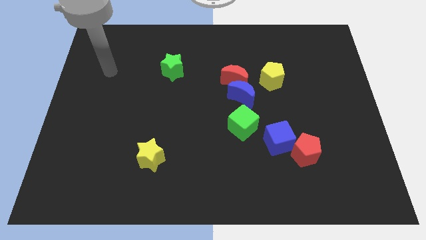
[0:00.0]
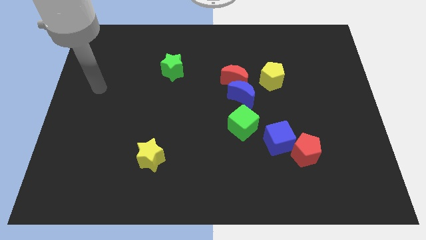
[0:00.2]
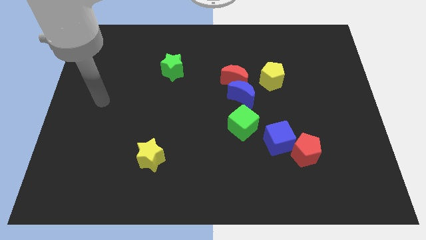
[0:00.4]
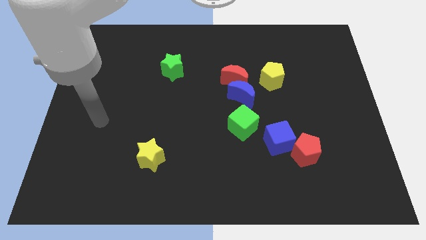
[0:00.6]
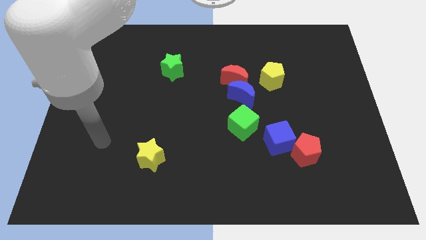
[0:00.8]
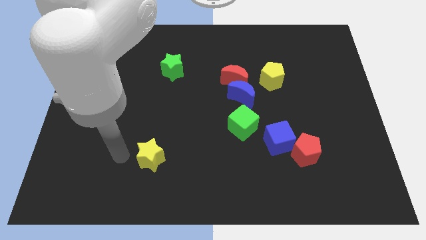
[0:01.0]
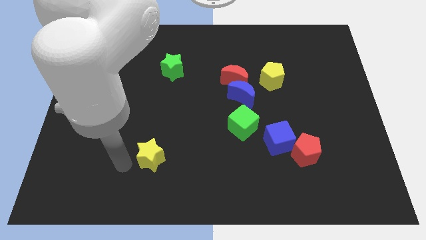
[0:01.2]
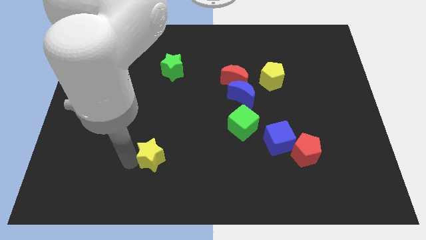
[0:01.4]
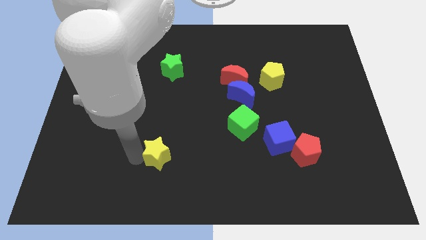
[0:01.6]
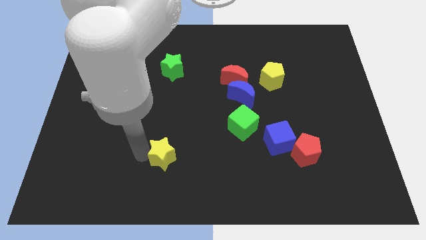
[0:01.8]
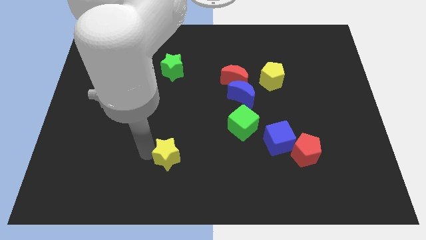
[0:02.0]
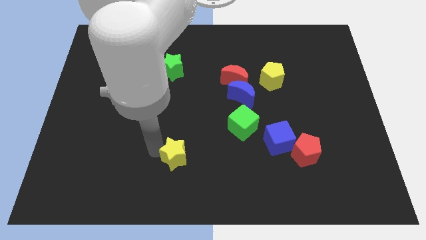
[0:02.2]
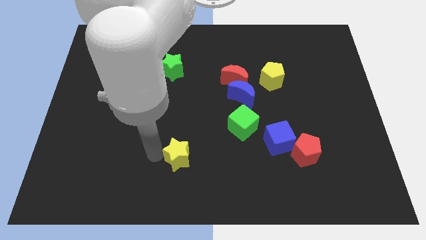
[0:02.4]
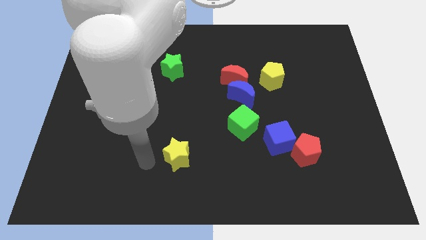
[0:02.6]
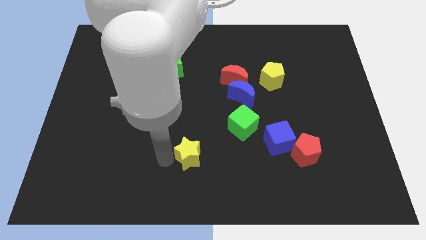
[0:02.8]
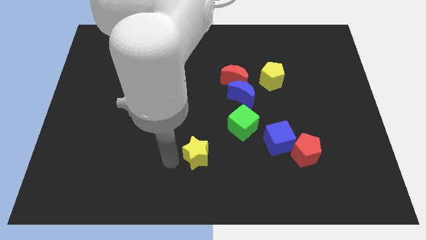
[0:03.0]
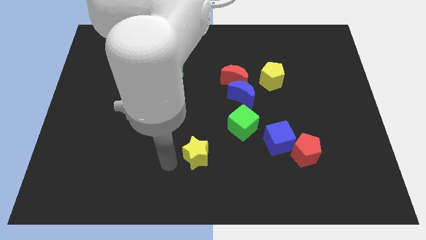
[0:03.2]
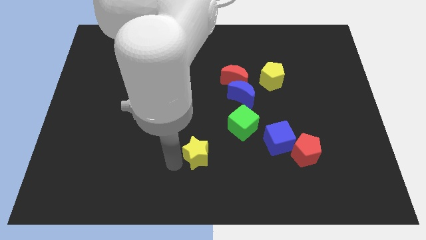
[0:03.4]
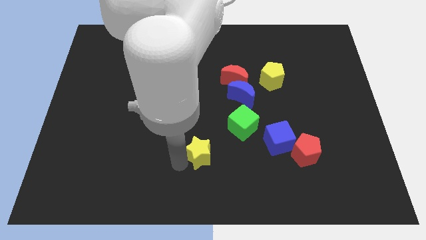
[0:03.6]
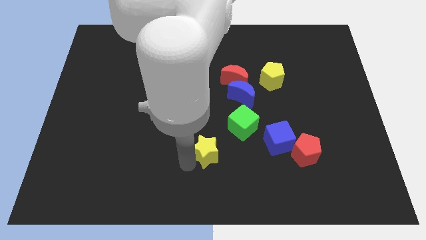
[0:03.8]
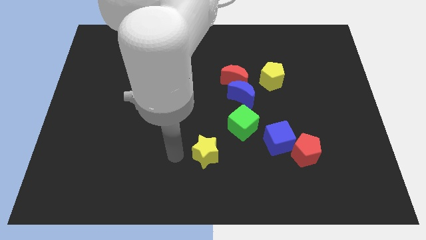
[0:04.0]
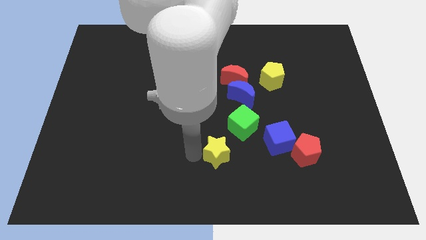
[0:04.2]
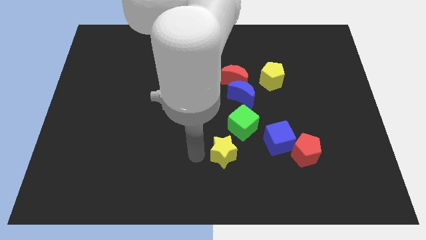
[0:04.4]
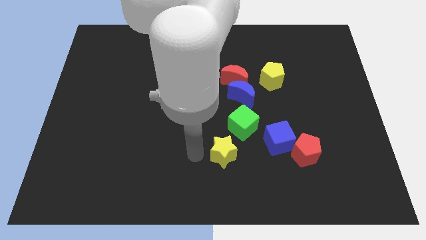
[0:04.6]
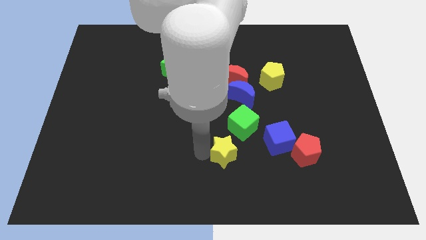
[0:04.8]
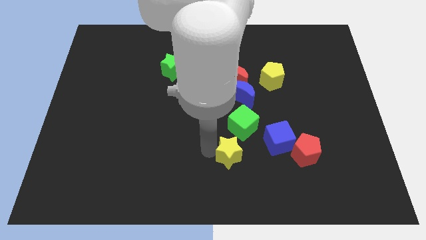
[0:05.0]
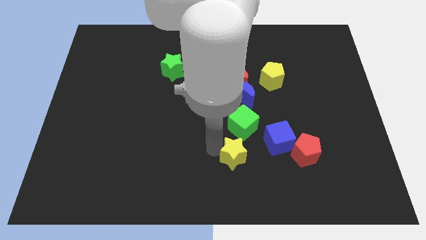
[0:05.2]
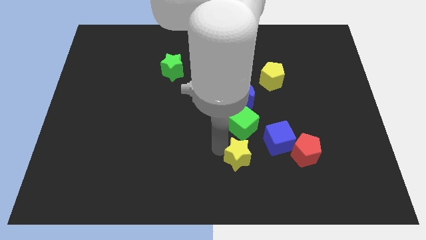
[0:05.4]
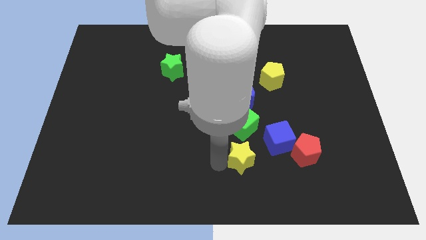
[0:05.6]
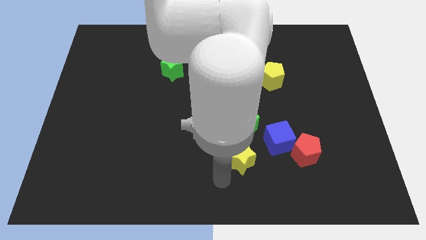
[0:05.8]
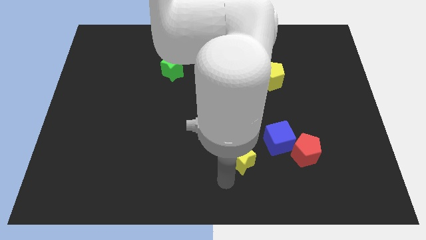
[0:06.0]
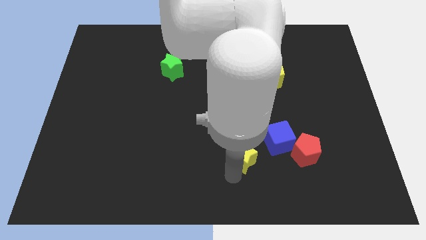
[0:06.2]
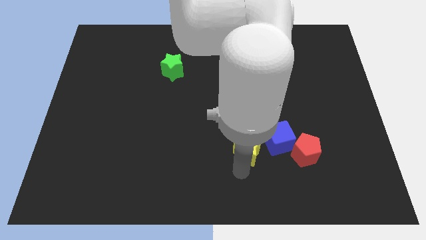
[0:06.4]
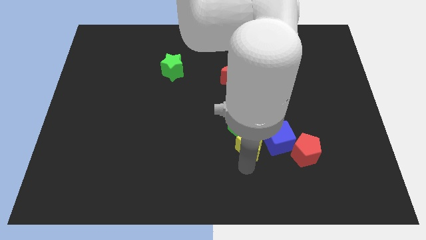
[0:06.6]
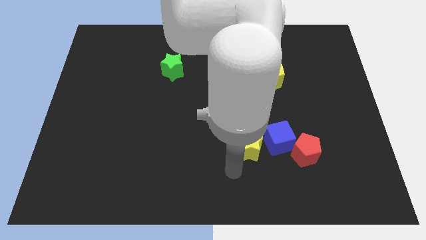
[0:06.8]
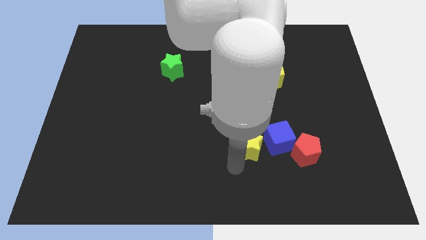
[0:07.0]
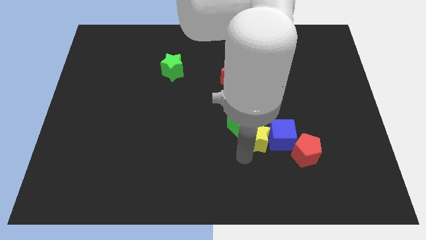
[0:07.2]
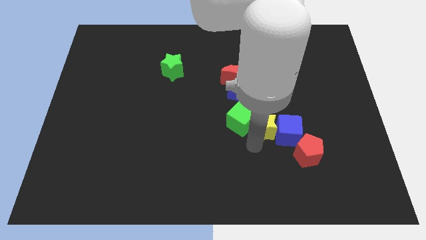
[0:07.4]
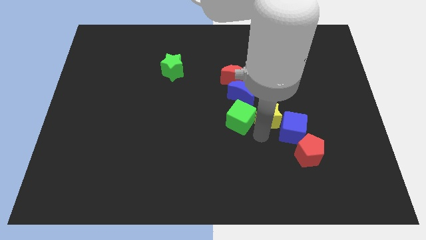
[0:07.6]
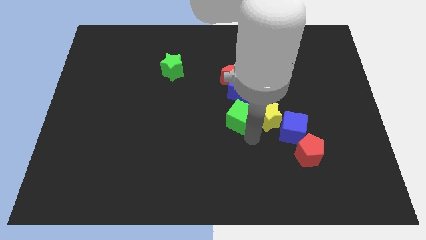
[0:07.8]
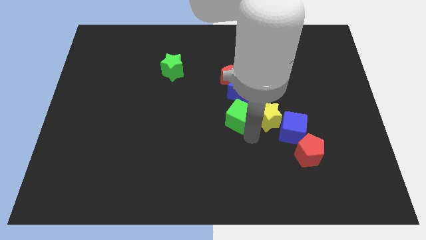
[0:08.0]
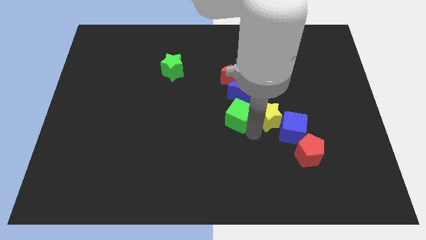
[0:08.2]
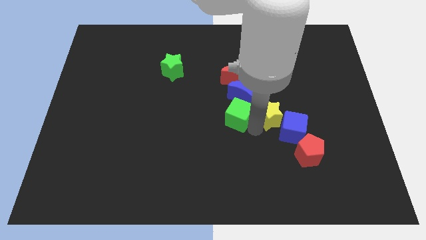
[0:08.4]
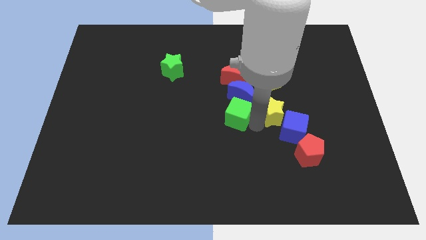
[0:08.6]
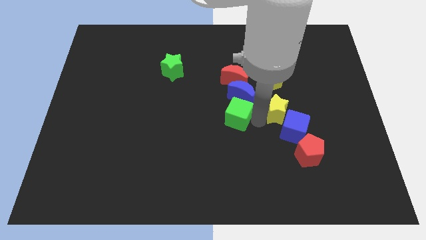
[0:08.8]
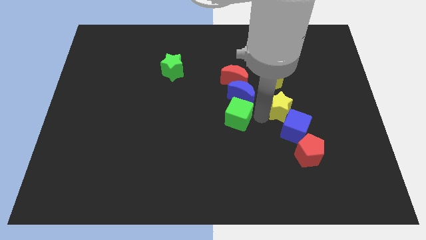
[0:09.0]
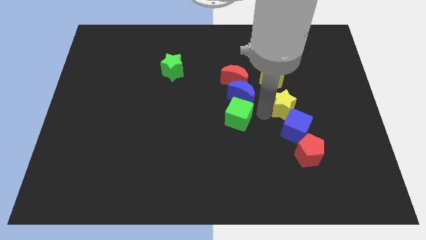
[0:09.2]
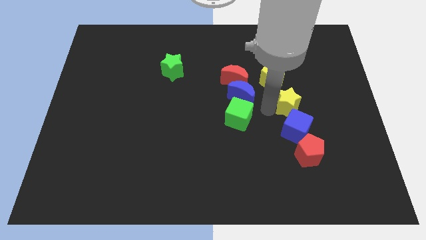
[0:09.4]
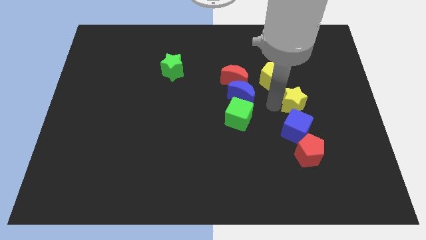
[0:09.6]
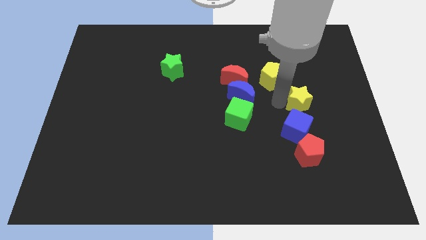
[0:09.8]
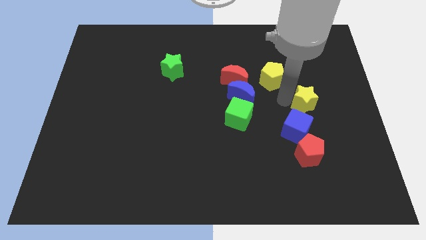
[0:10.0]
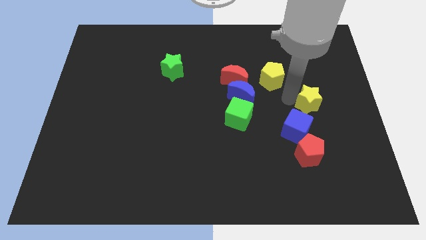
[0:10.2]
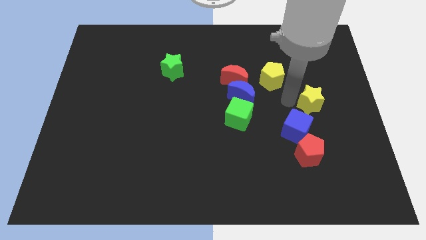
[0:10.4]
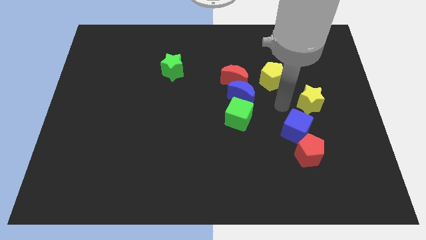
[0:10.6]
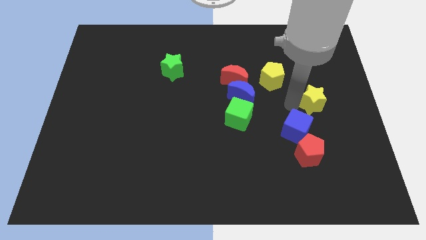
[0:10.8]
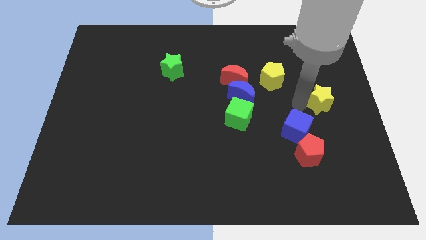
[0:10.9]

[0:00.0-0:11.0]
move the yellow star to the right side of the board

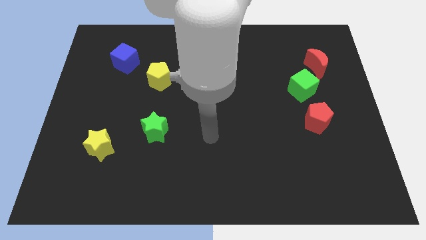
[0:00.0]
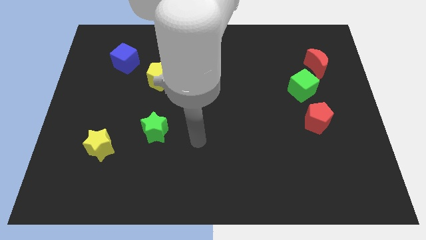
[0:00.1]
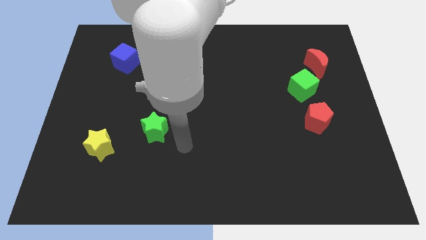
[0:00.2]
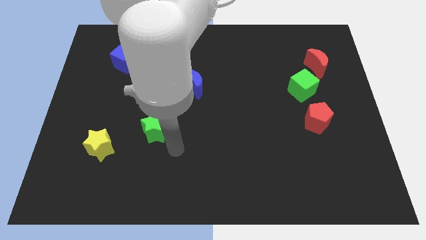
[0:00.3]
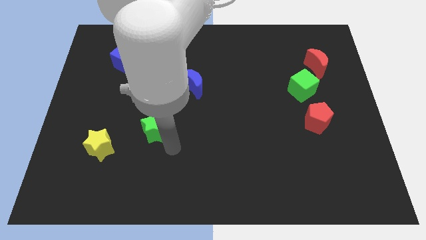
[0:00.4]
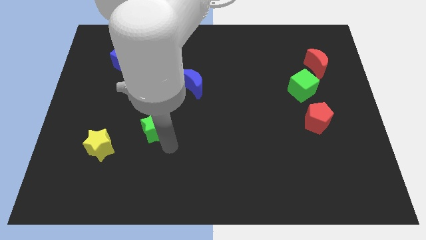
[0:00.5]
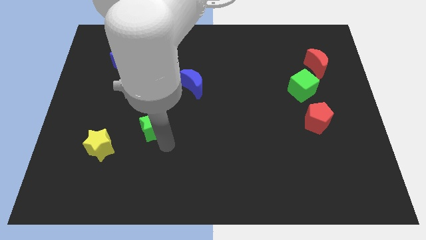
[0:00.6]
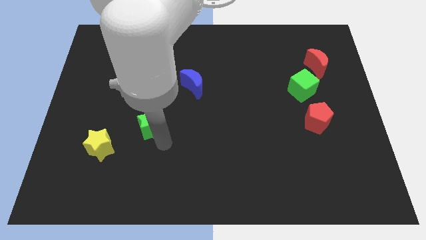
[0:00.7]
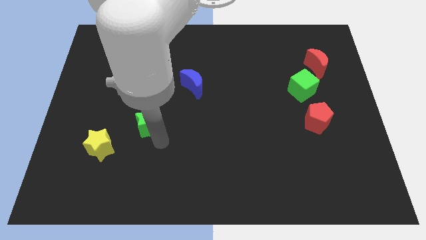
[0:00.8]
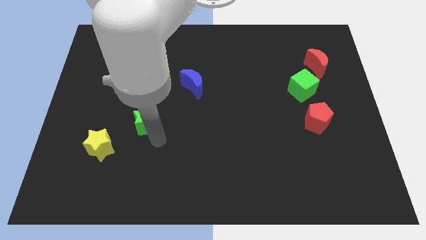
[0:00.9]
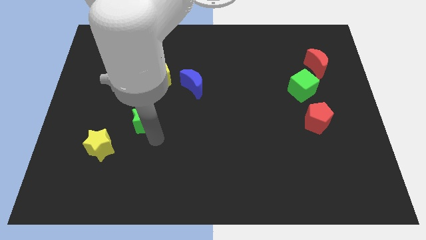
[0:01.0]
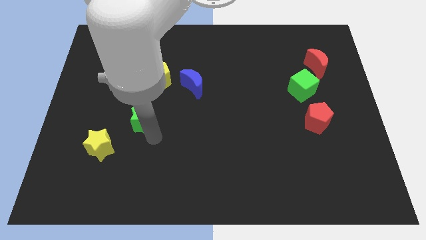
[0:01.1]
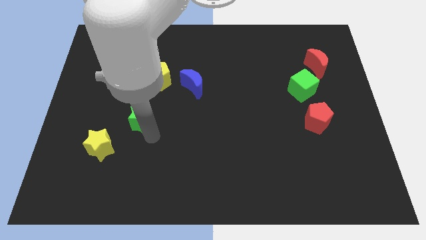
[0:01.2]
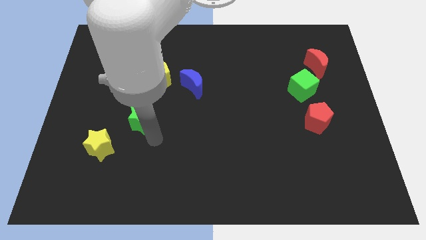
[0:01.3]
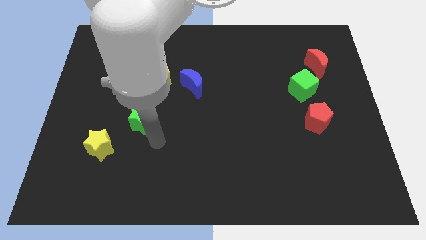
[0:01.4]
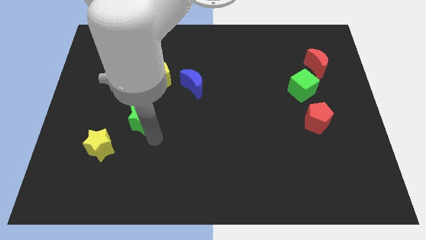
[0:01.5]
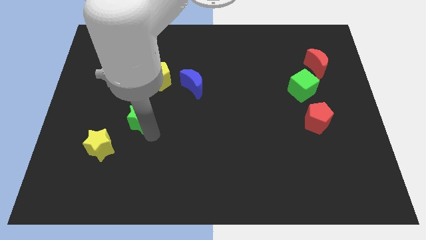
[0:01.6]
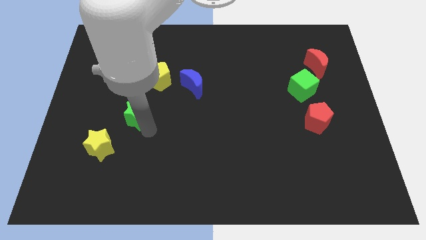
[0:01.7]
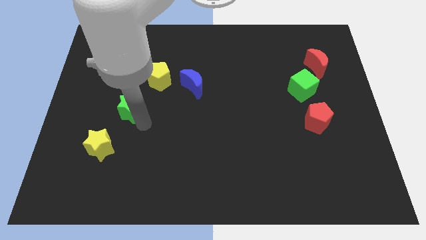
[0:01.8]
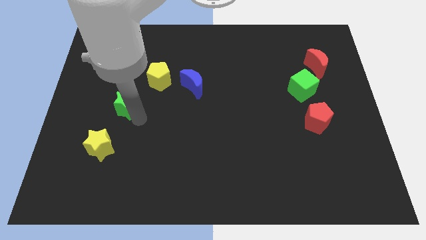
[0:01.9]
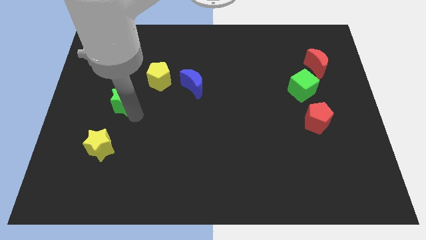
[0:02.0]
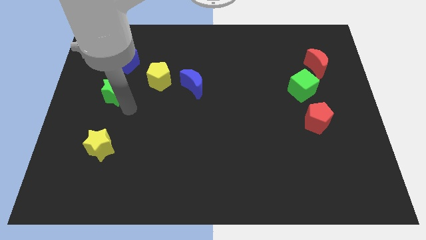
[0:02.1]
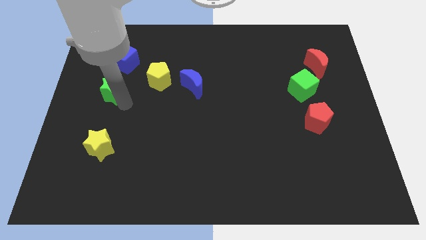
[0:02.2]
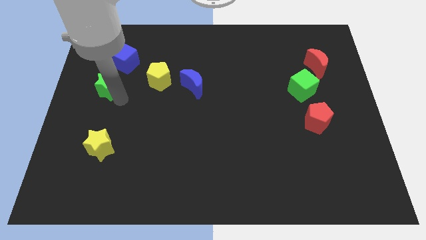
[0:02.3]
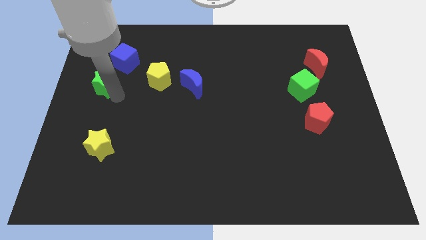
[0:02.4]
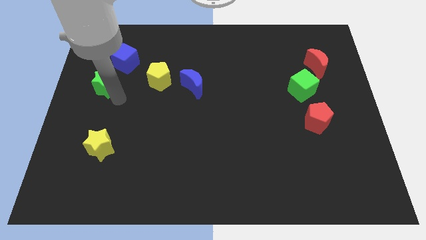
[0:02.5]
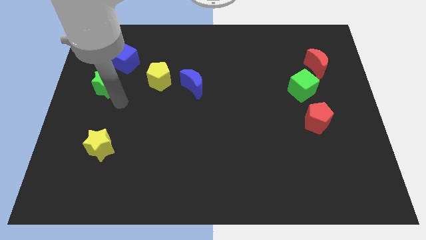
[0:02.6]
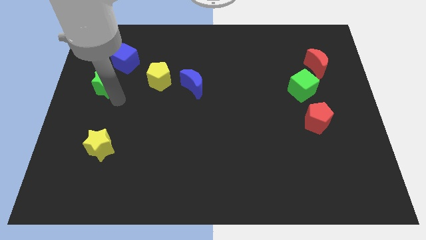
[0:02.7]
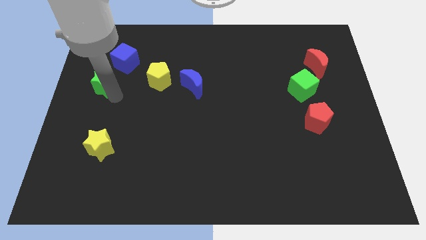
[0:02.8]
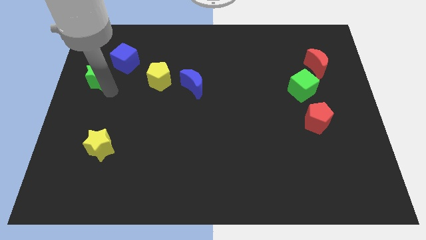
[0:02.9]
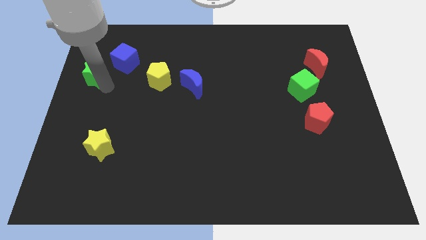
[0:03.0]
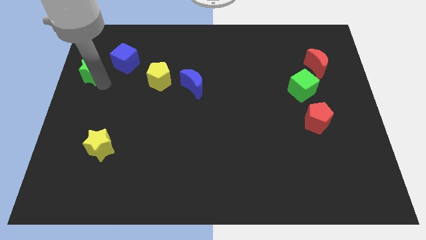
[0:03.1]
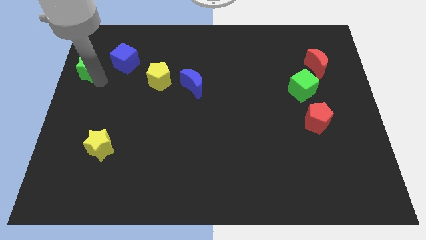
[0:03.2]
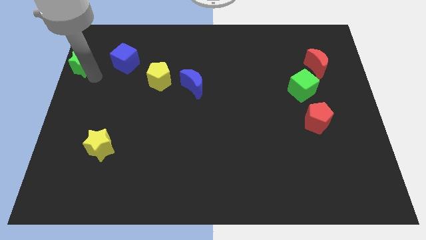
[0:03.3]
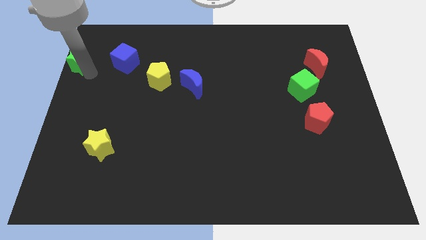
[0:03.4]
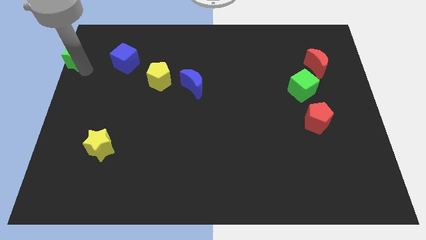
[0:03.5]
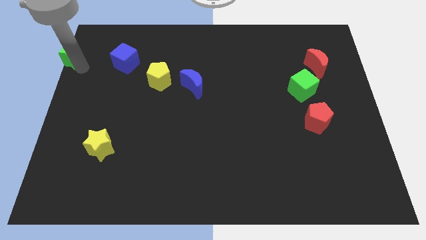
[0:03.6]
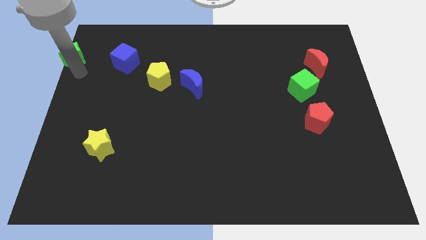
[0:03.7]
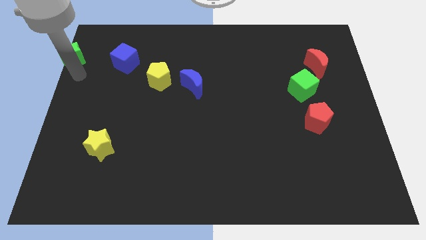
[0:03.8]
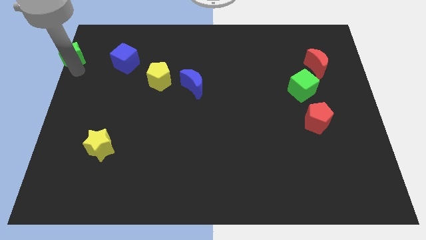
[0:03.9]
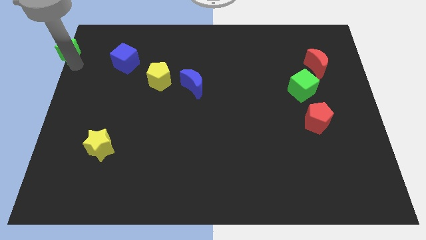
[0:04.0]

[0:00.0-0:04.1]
put the green star to the top left corner
